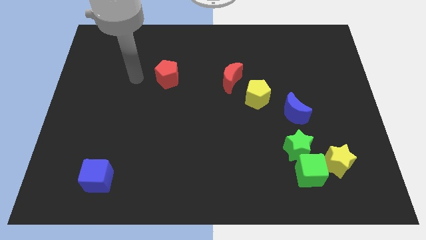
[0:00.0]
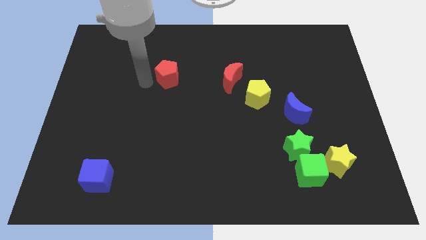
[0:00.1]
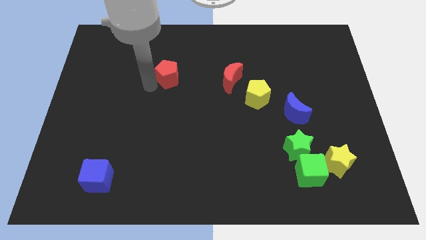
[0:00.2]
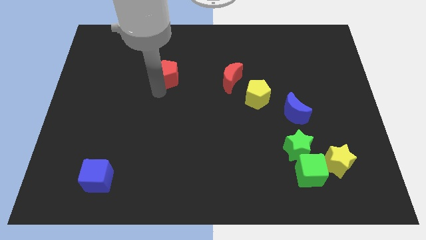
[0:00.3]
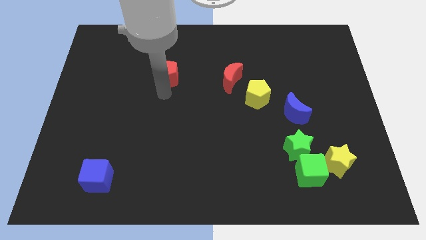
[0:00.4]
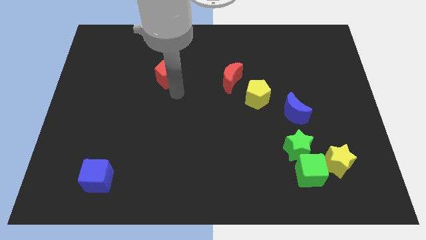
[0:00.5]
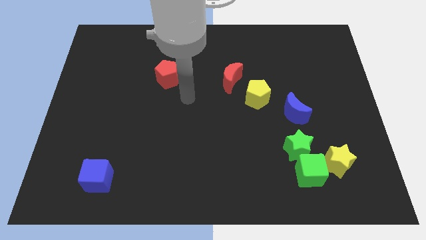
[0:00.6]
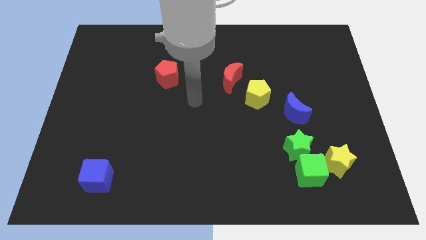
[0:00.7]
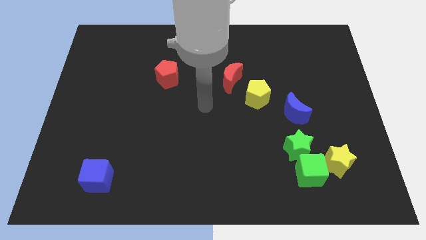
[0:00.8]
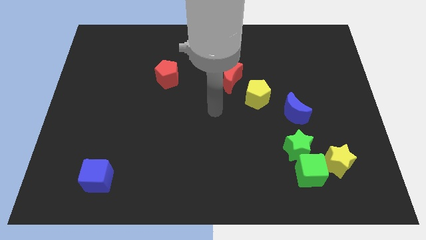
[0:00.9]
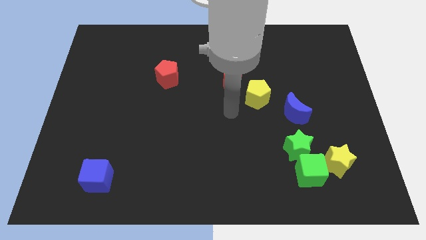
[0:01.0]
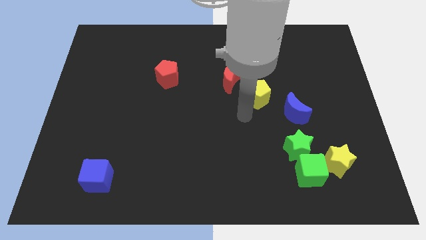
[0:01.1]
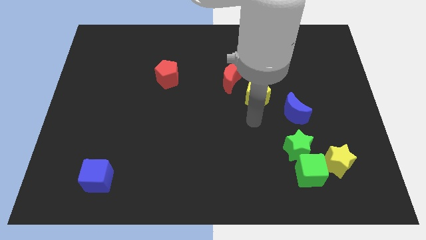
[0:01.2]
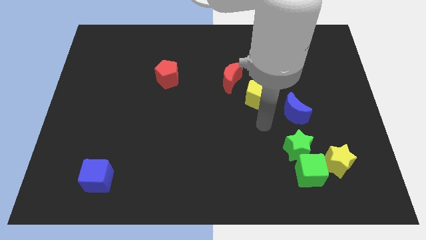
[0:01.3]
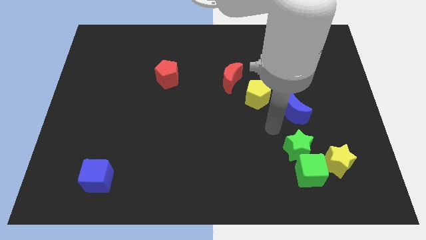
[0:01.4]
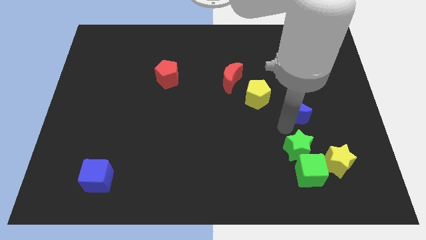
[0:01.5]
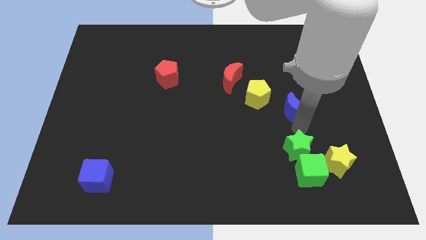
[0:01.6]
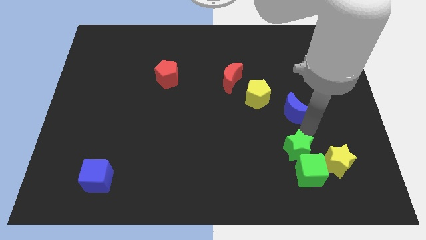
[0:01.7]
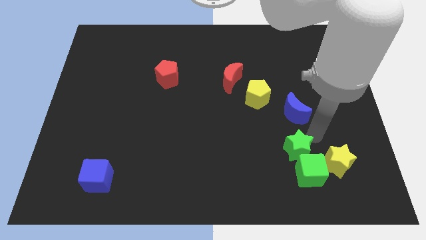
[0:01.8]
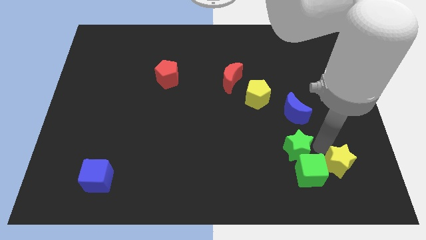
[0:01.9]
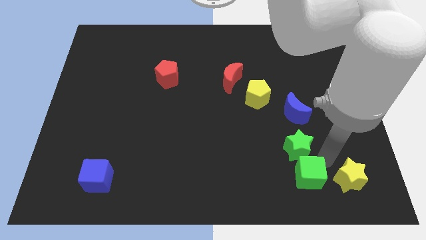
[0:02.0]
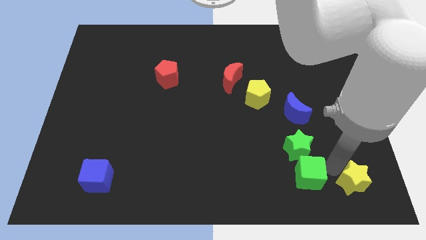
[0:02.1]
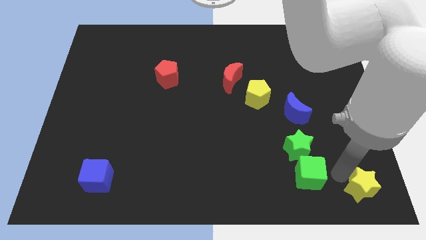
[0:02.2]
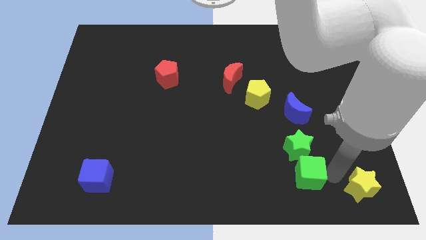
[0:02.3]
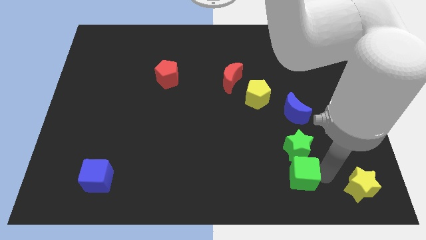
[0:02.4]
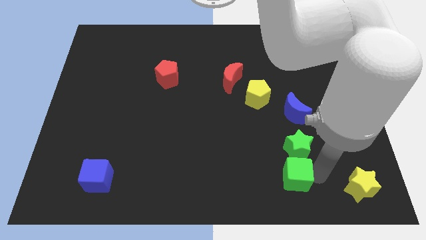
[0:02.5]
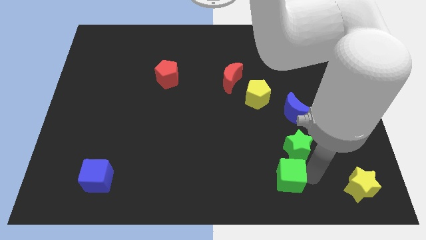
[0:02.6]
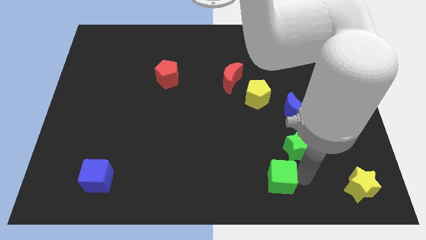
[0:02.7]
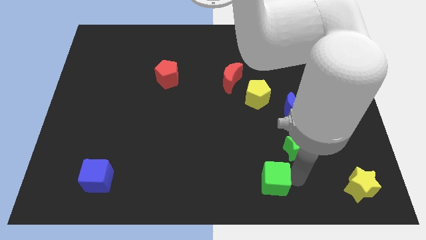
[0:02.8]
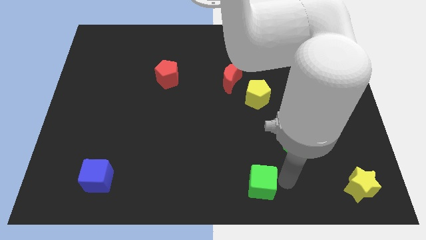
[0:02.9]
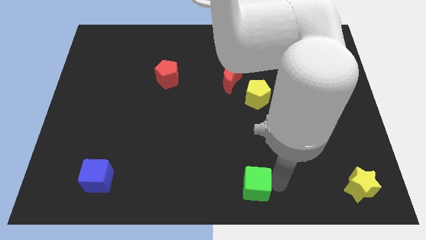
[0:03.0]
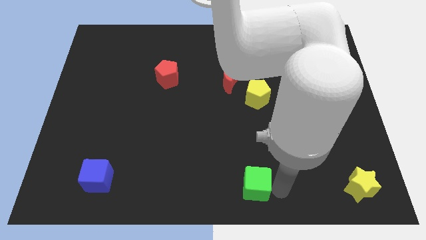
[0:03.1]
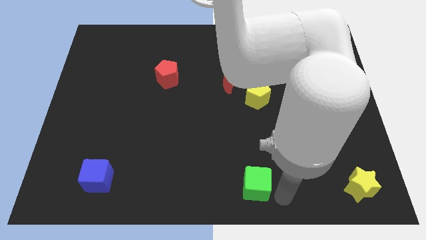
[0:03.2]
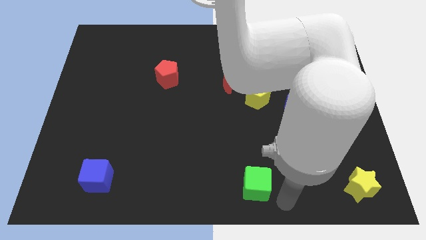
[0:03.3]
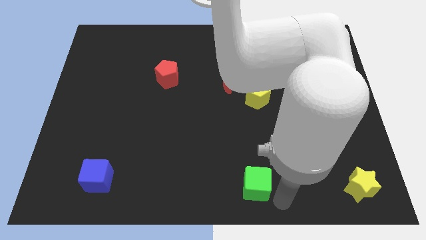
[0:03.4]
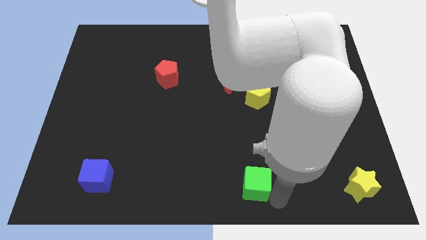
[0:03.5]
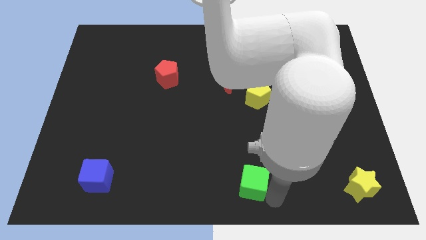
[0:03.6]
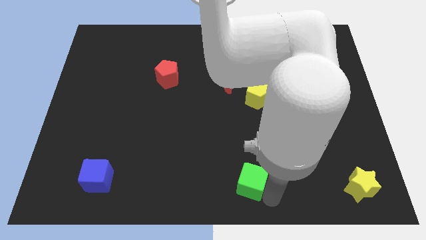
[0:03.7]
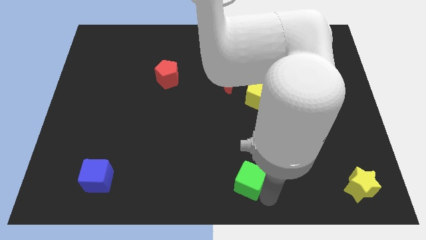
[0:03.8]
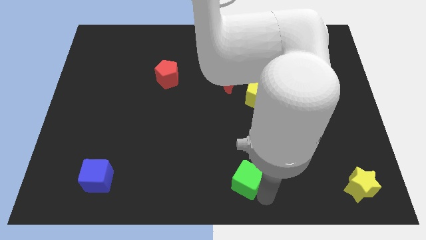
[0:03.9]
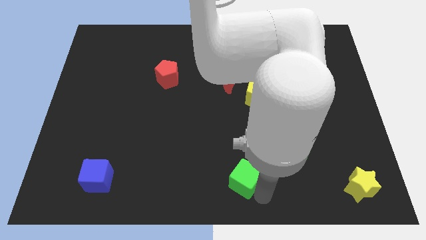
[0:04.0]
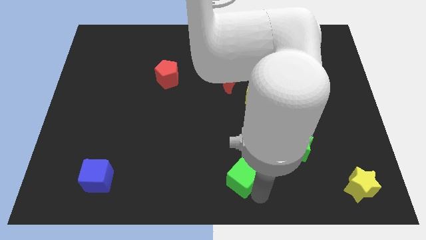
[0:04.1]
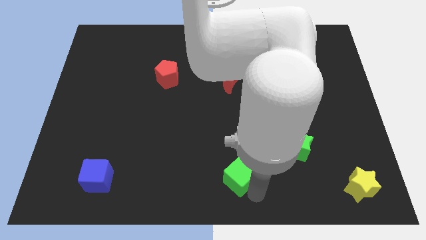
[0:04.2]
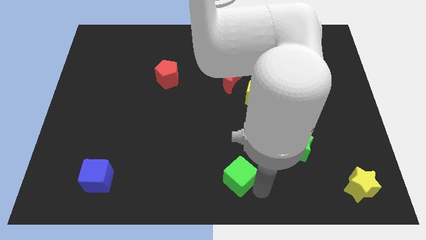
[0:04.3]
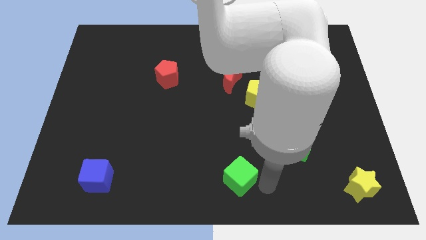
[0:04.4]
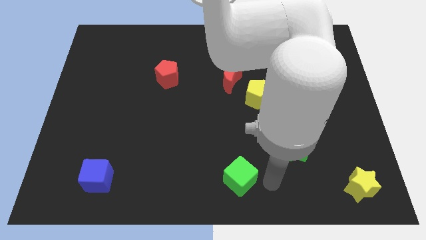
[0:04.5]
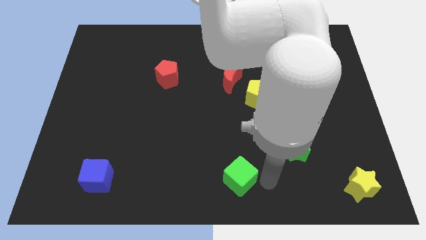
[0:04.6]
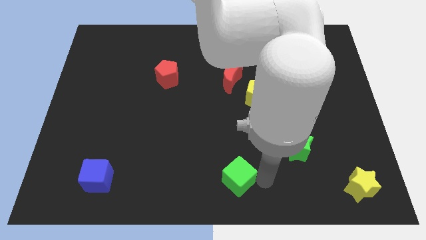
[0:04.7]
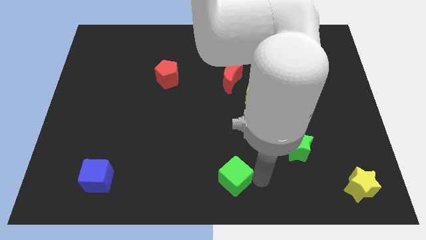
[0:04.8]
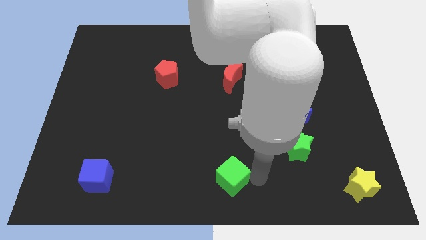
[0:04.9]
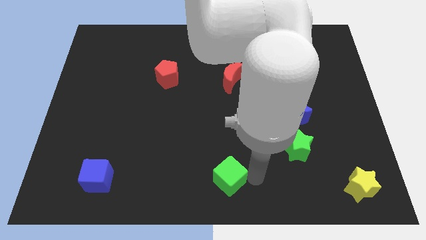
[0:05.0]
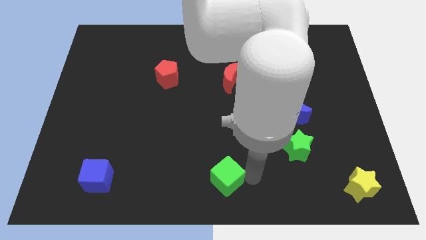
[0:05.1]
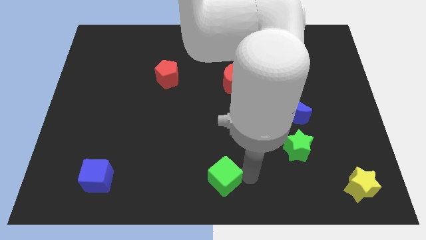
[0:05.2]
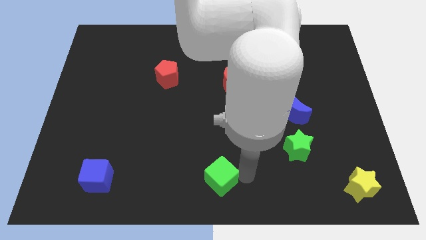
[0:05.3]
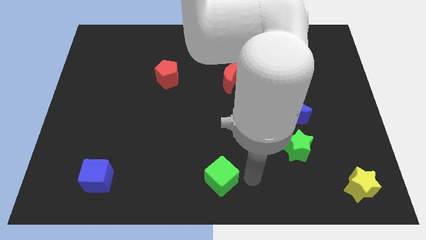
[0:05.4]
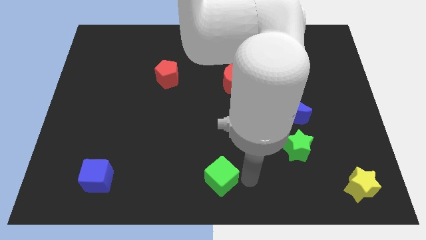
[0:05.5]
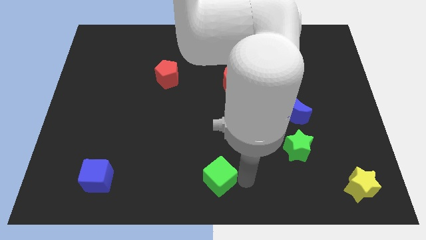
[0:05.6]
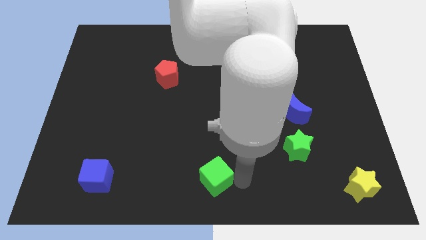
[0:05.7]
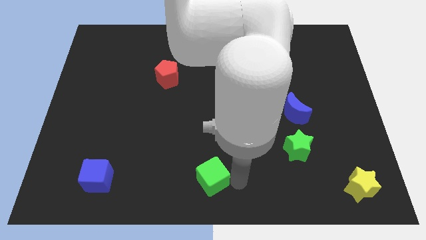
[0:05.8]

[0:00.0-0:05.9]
move the green cube left

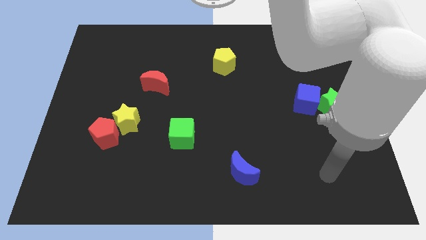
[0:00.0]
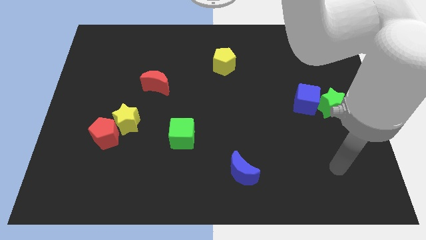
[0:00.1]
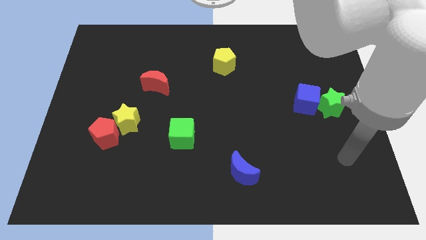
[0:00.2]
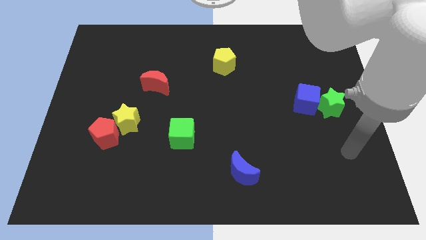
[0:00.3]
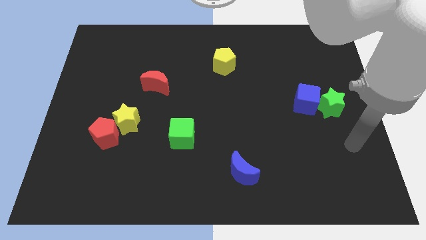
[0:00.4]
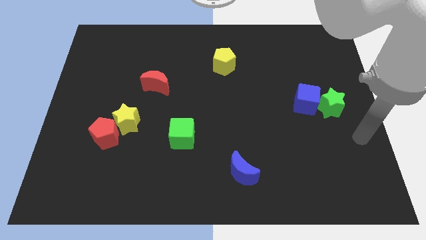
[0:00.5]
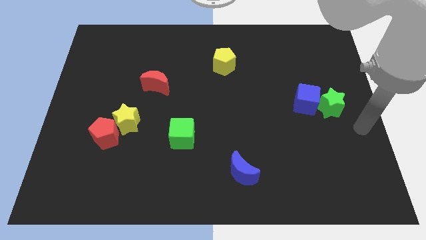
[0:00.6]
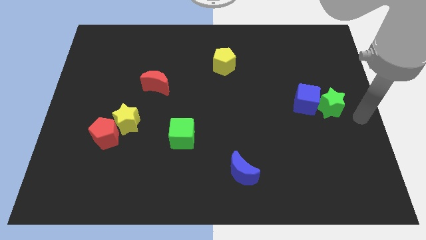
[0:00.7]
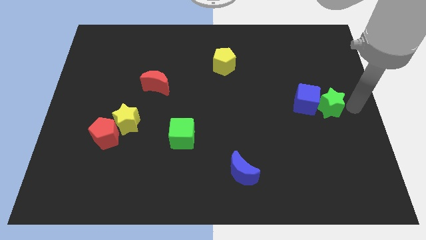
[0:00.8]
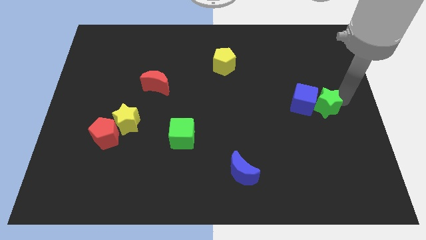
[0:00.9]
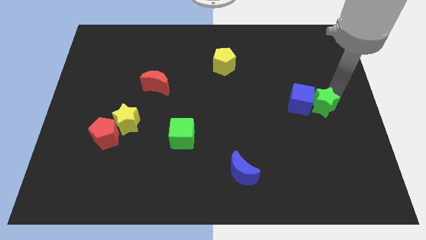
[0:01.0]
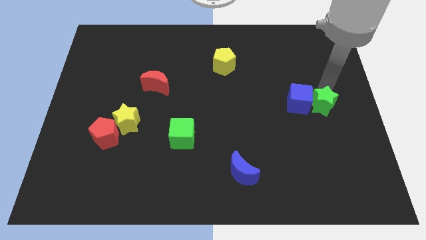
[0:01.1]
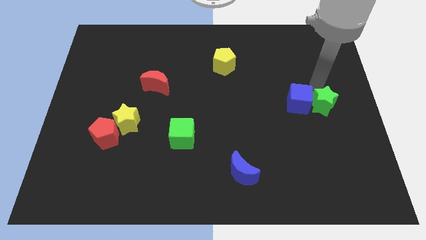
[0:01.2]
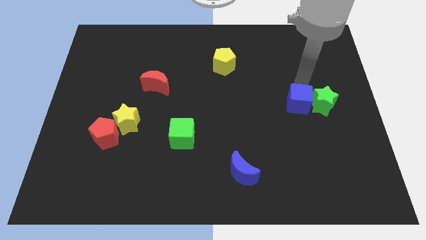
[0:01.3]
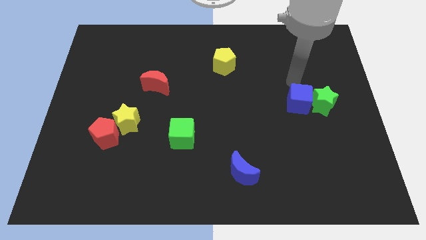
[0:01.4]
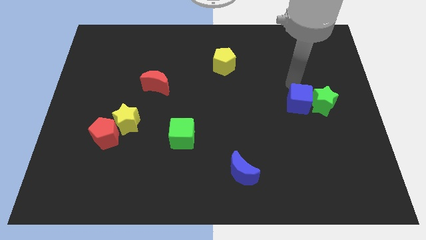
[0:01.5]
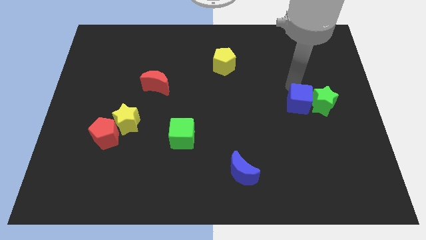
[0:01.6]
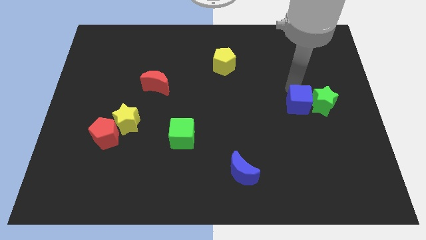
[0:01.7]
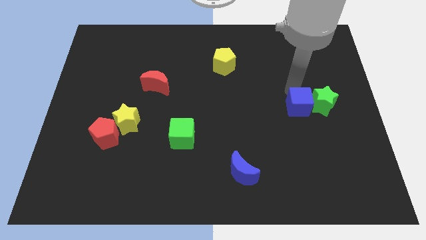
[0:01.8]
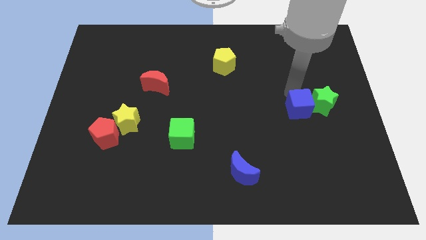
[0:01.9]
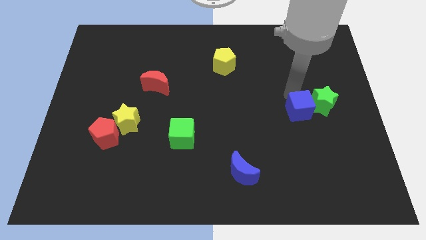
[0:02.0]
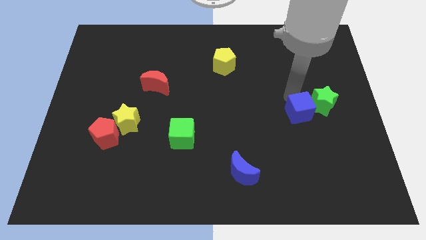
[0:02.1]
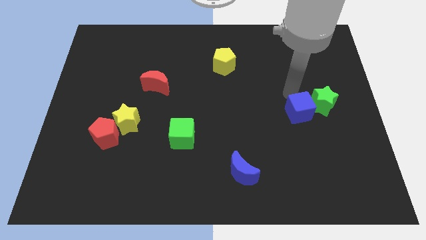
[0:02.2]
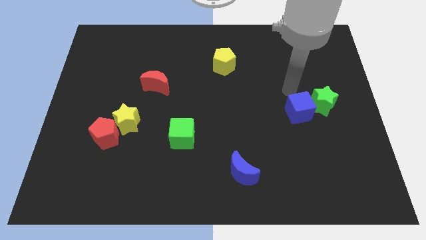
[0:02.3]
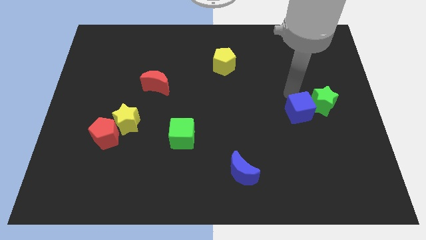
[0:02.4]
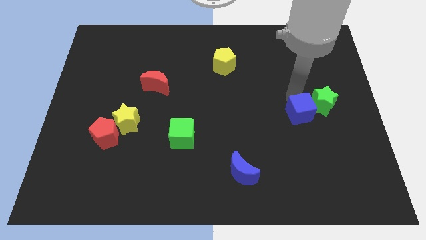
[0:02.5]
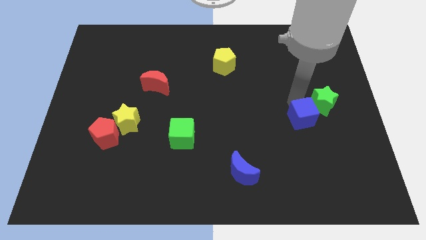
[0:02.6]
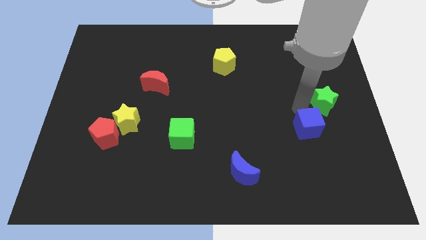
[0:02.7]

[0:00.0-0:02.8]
slightly push the blue cube down
